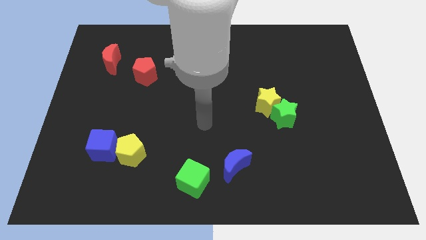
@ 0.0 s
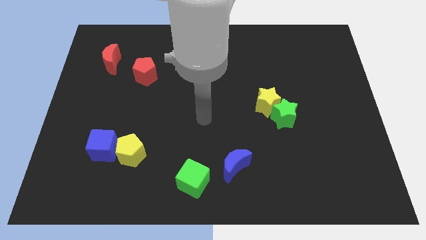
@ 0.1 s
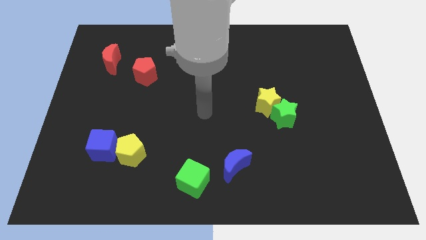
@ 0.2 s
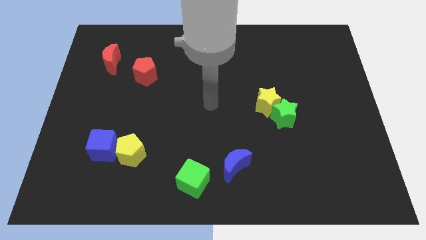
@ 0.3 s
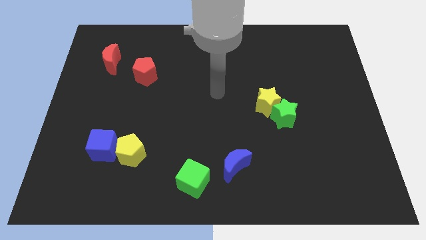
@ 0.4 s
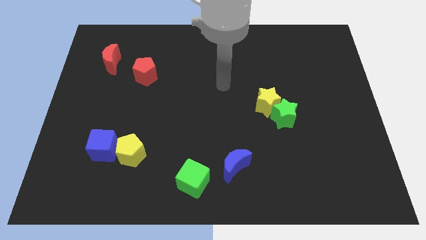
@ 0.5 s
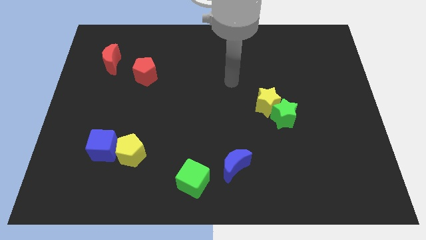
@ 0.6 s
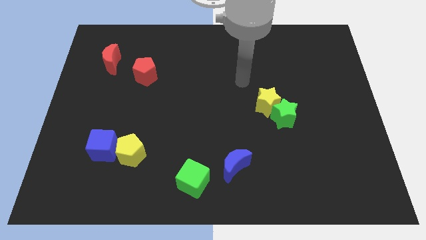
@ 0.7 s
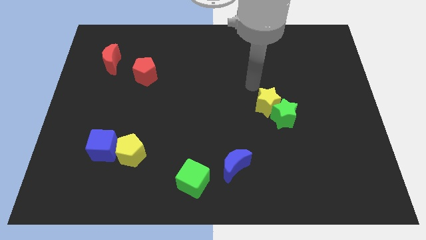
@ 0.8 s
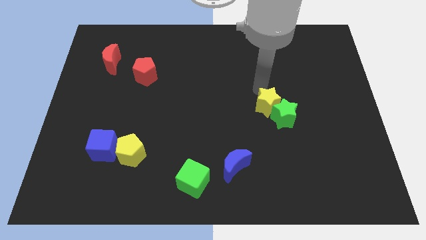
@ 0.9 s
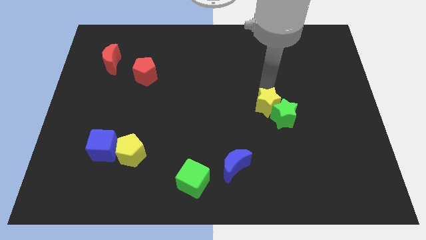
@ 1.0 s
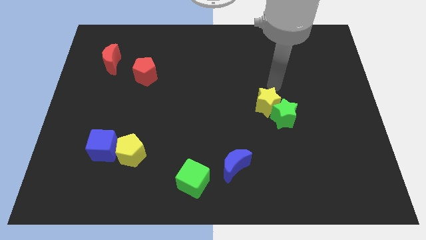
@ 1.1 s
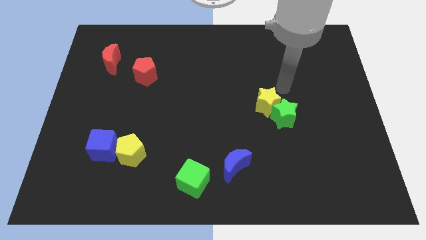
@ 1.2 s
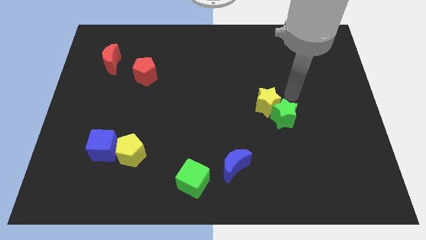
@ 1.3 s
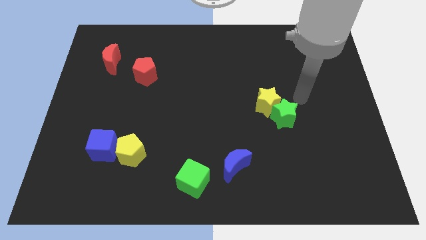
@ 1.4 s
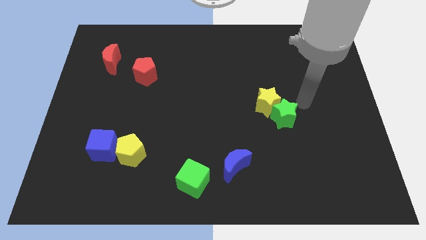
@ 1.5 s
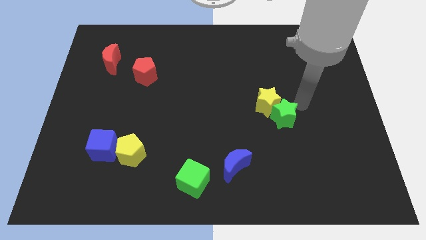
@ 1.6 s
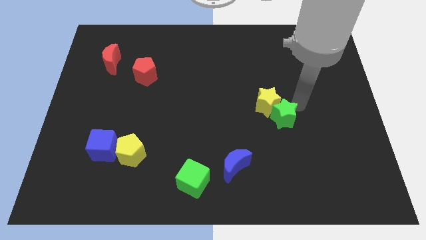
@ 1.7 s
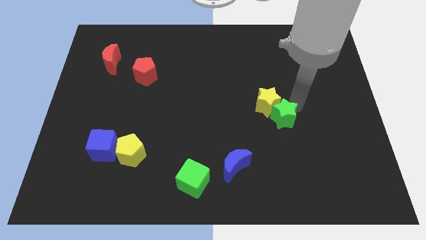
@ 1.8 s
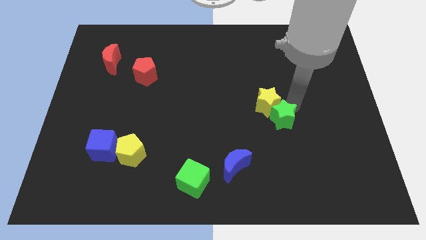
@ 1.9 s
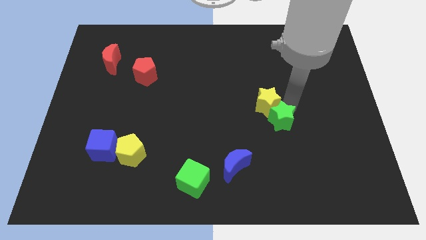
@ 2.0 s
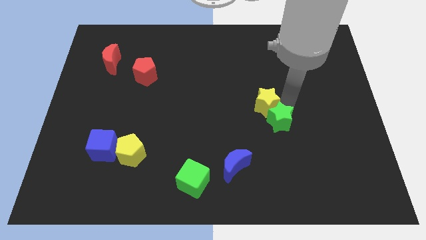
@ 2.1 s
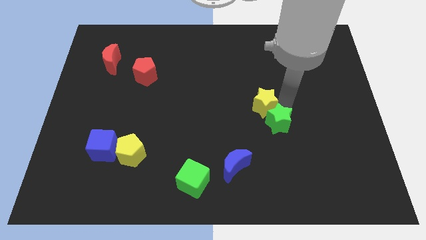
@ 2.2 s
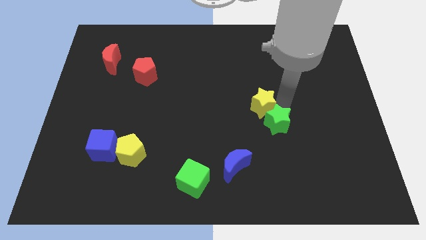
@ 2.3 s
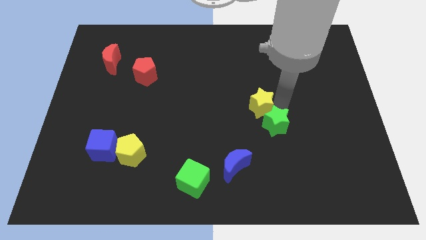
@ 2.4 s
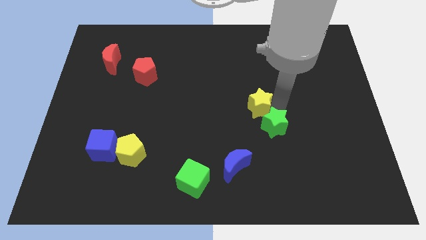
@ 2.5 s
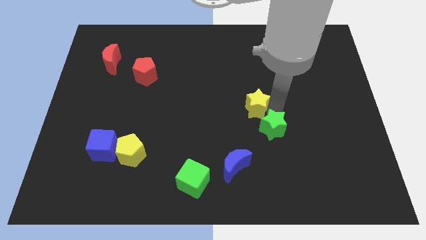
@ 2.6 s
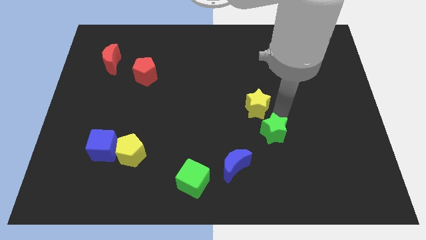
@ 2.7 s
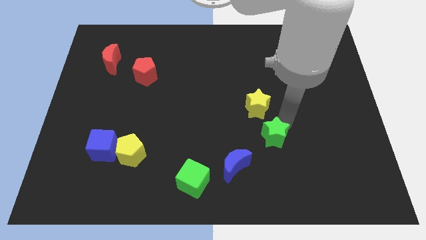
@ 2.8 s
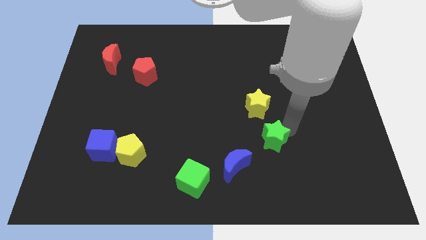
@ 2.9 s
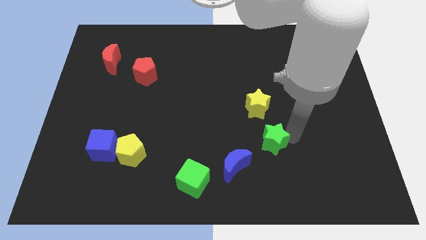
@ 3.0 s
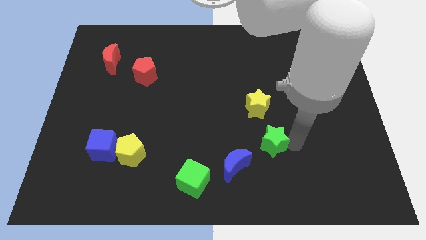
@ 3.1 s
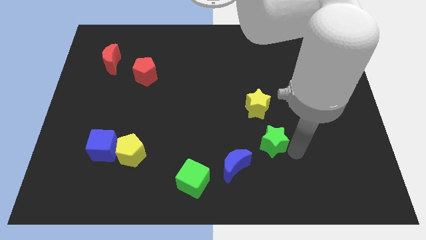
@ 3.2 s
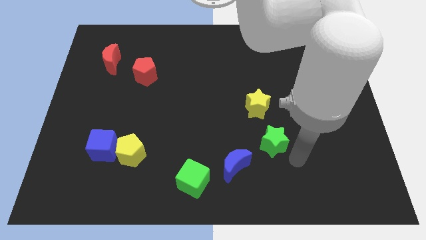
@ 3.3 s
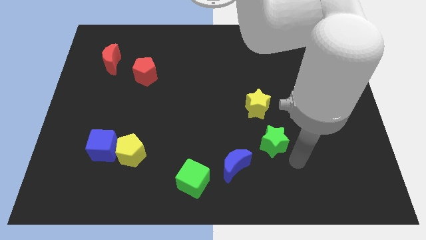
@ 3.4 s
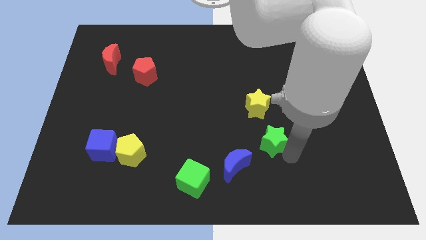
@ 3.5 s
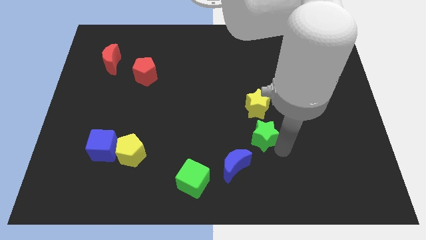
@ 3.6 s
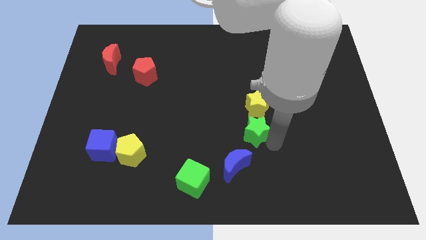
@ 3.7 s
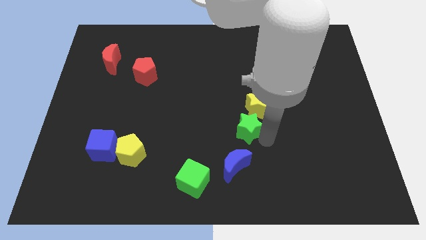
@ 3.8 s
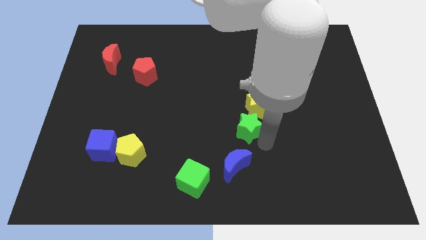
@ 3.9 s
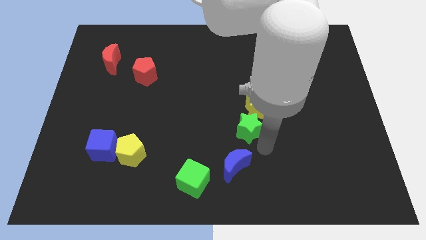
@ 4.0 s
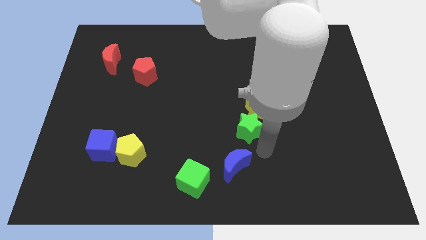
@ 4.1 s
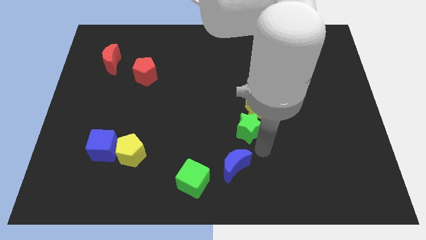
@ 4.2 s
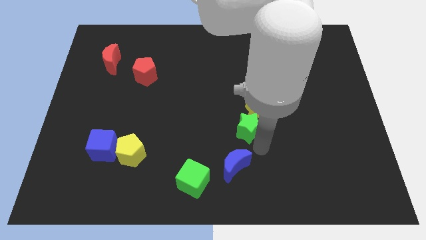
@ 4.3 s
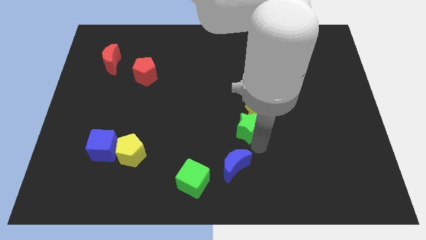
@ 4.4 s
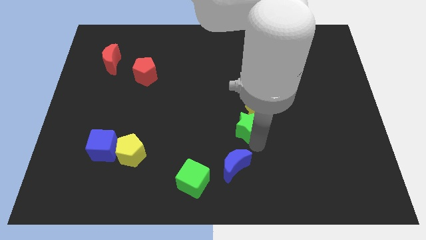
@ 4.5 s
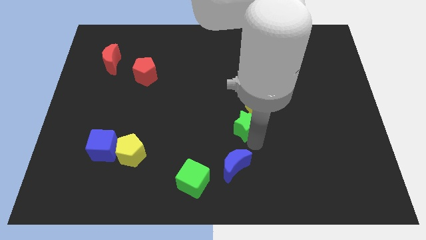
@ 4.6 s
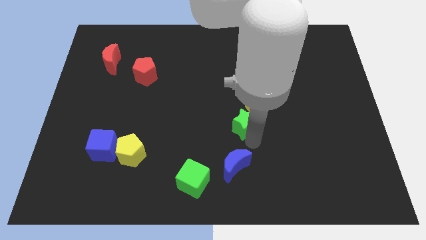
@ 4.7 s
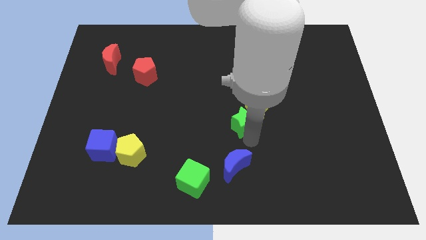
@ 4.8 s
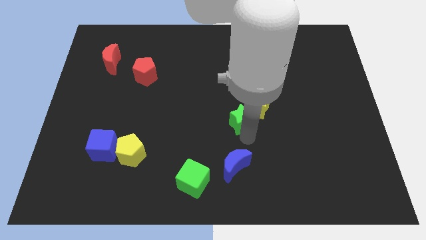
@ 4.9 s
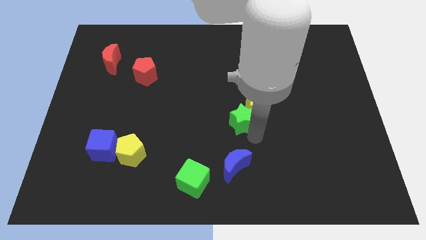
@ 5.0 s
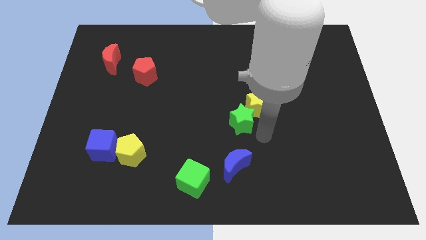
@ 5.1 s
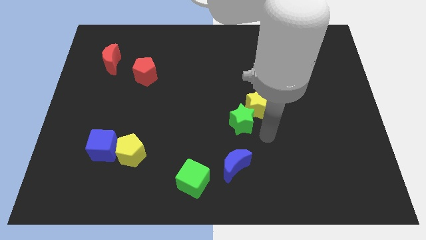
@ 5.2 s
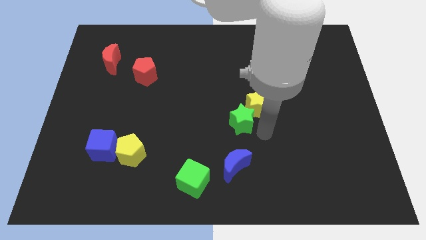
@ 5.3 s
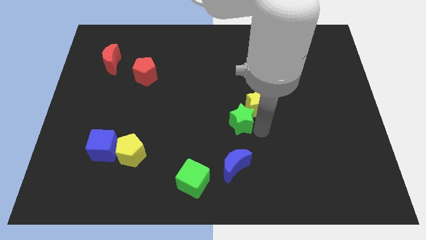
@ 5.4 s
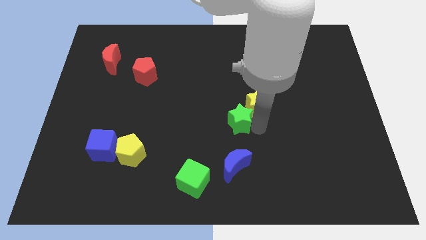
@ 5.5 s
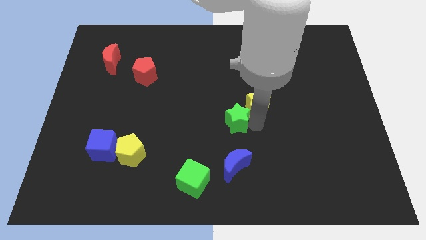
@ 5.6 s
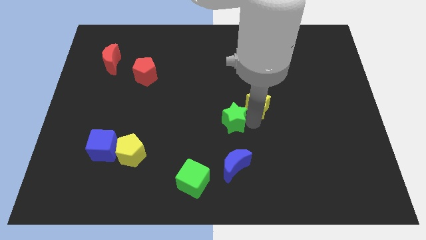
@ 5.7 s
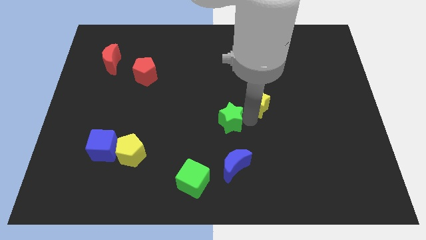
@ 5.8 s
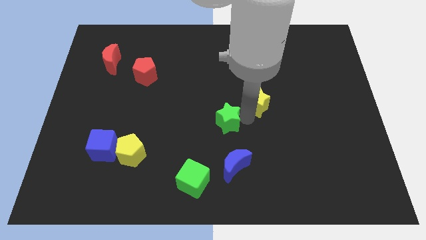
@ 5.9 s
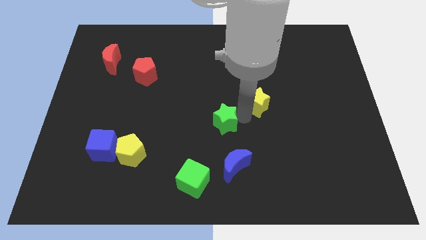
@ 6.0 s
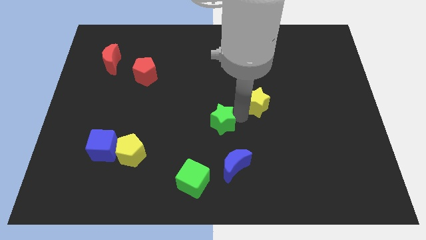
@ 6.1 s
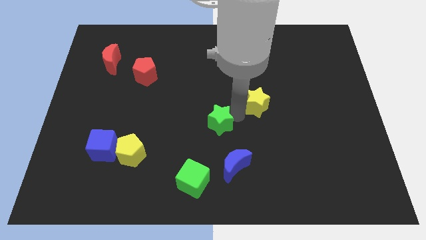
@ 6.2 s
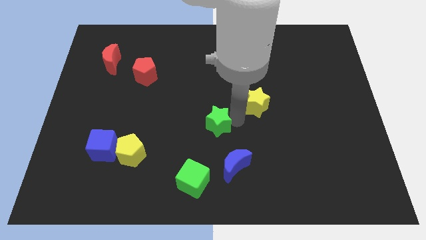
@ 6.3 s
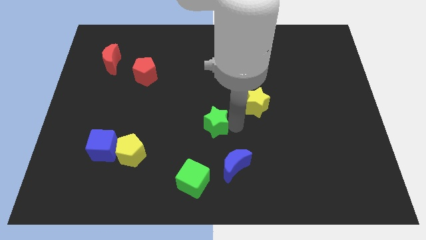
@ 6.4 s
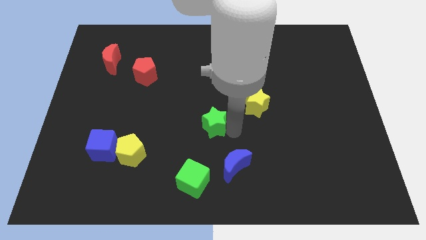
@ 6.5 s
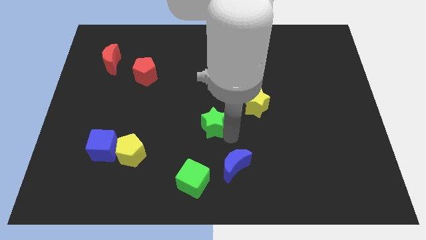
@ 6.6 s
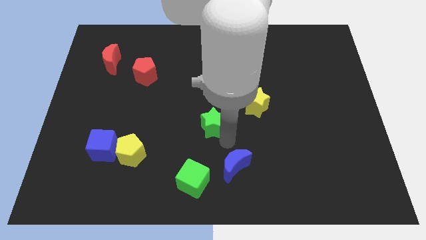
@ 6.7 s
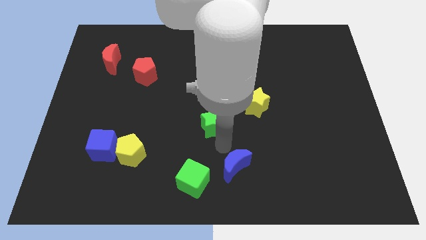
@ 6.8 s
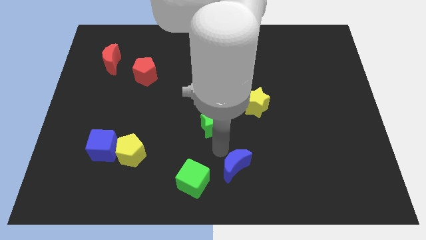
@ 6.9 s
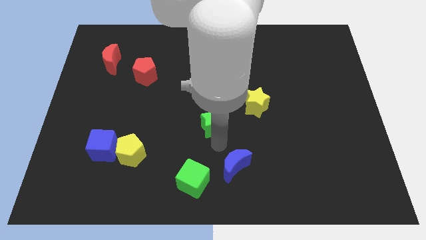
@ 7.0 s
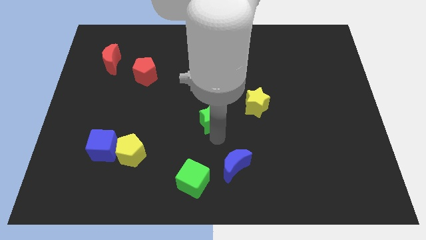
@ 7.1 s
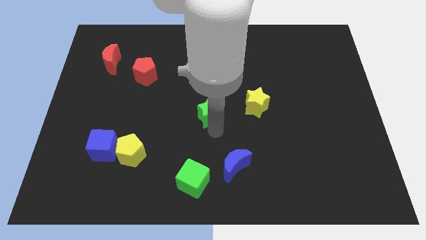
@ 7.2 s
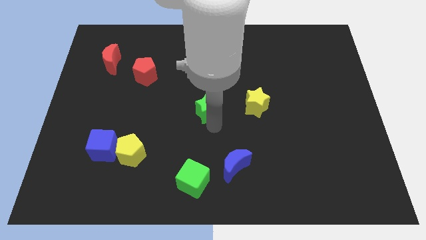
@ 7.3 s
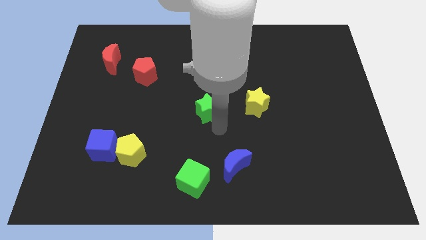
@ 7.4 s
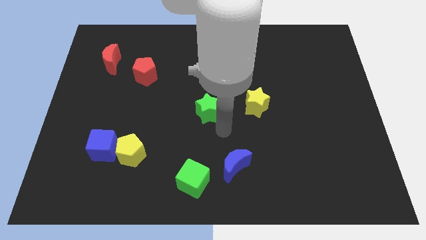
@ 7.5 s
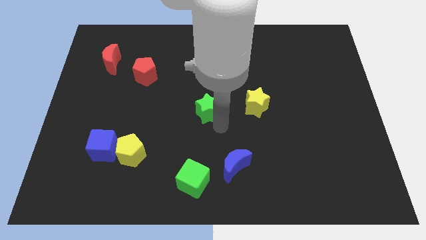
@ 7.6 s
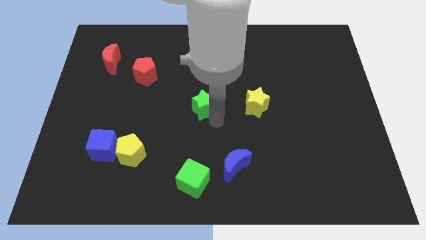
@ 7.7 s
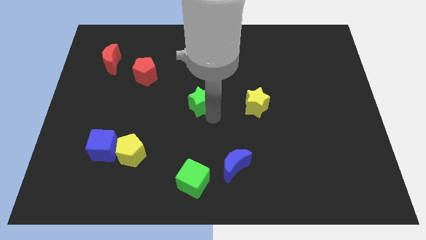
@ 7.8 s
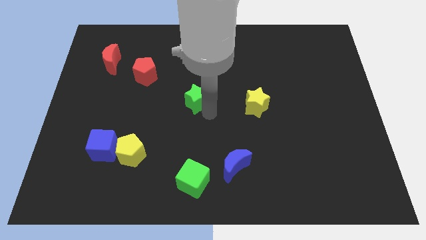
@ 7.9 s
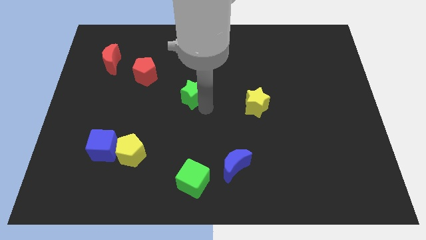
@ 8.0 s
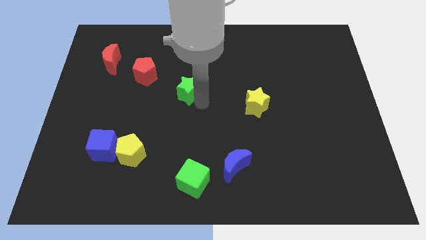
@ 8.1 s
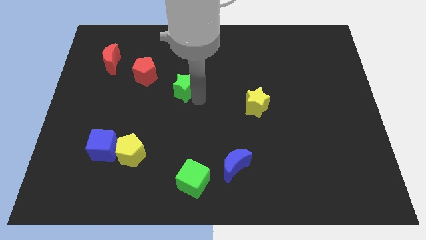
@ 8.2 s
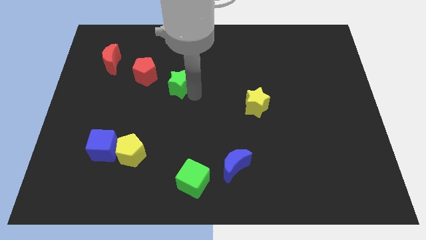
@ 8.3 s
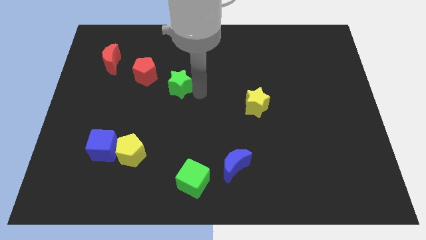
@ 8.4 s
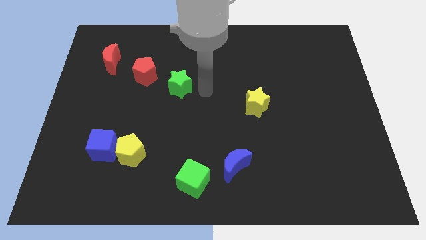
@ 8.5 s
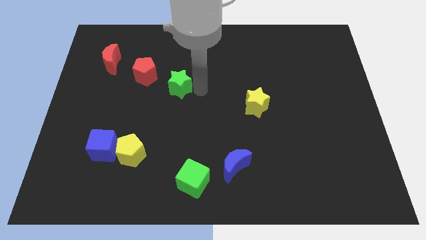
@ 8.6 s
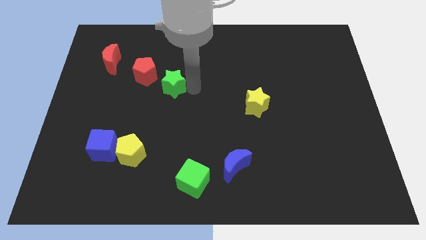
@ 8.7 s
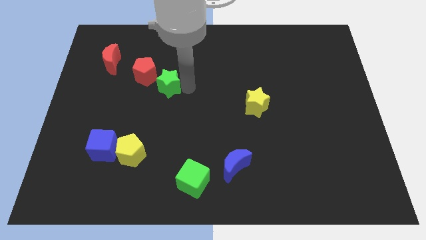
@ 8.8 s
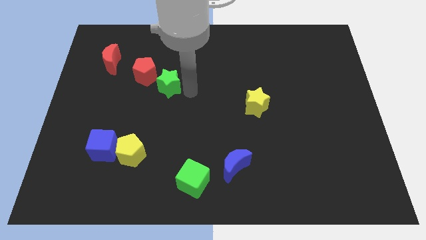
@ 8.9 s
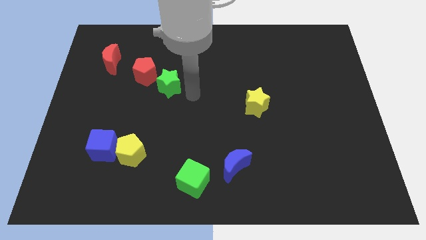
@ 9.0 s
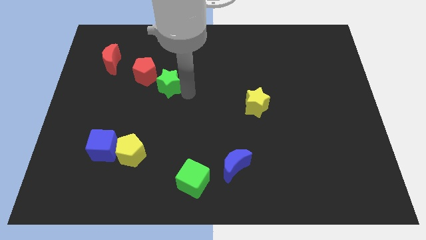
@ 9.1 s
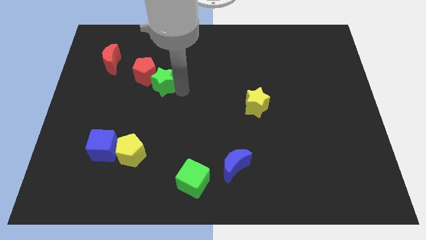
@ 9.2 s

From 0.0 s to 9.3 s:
put the green star close to the red pentagon
